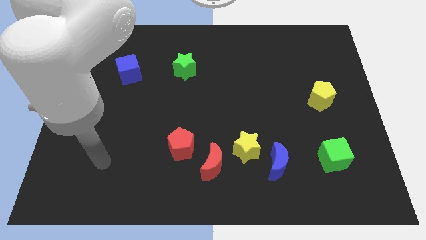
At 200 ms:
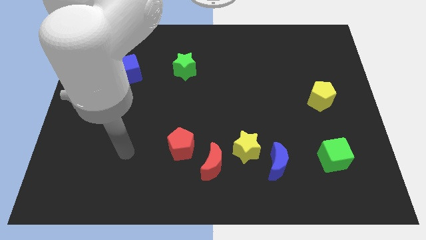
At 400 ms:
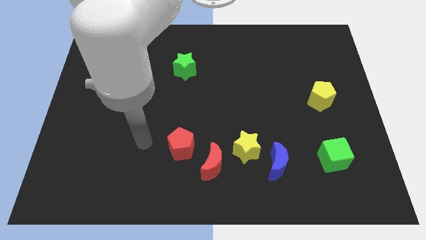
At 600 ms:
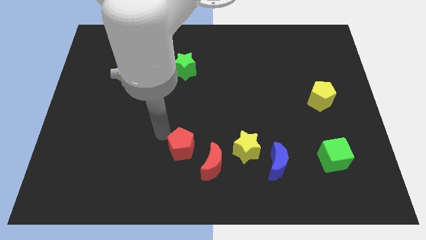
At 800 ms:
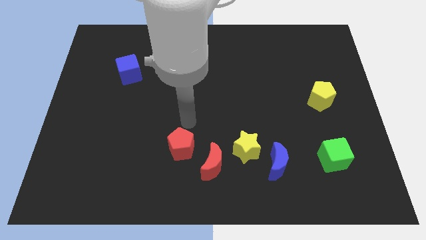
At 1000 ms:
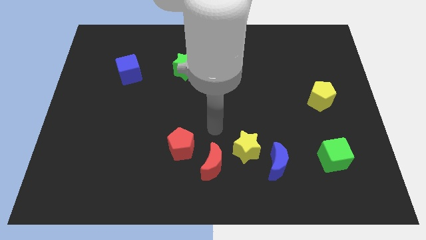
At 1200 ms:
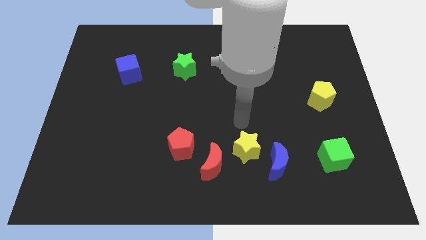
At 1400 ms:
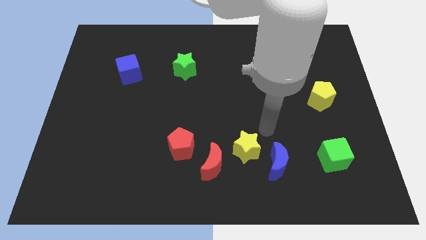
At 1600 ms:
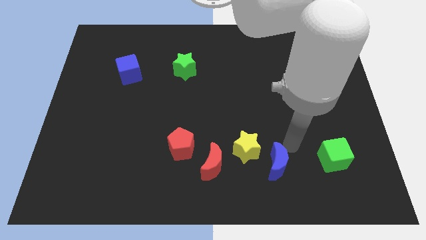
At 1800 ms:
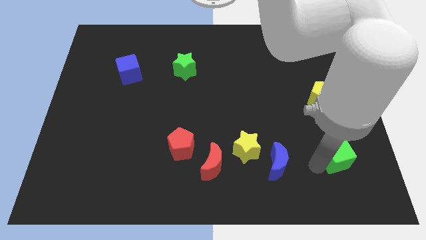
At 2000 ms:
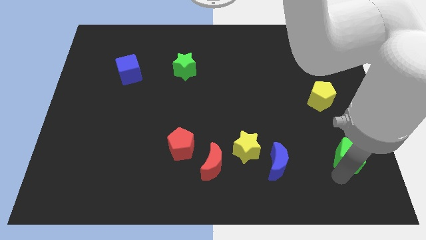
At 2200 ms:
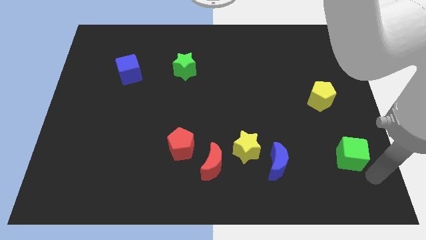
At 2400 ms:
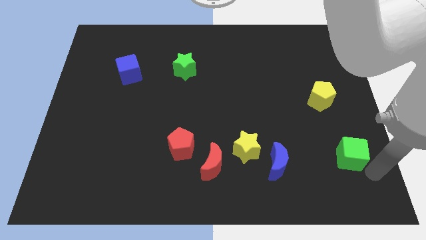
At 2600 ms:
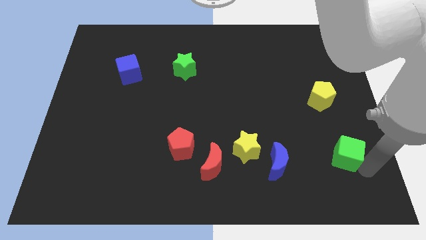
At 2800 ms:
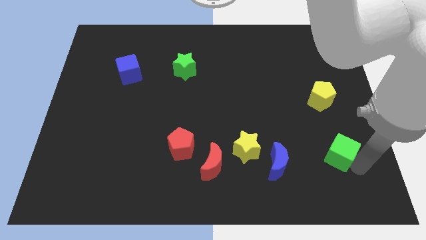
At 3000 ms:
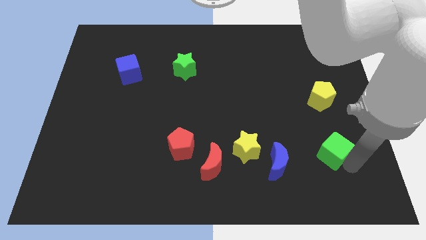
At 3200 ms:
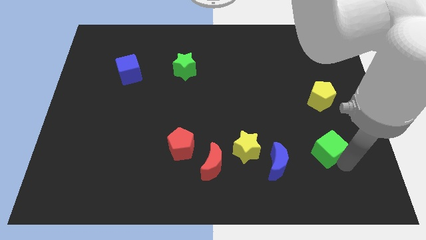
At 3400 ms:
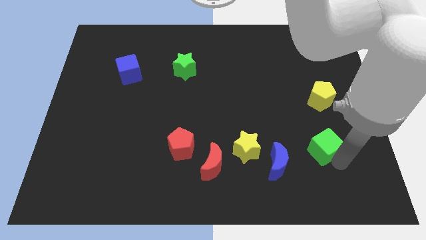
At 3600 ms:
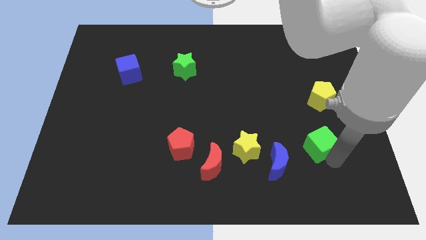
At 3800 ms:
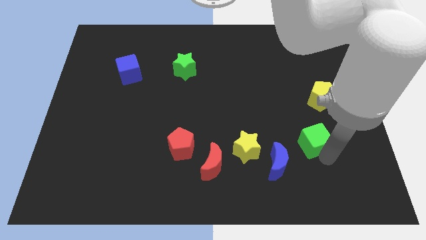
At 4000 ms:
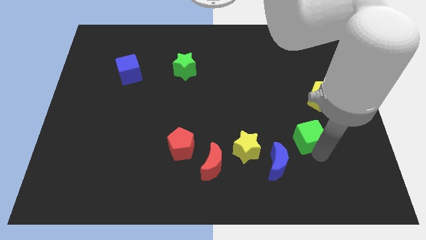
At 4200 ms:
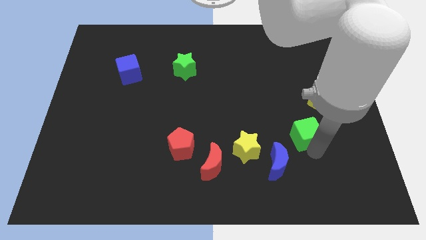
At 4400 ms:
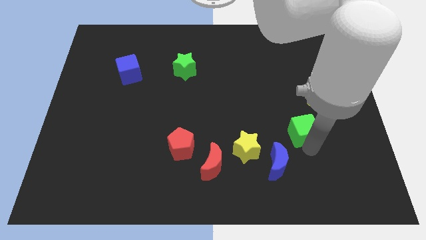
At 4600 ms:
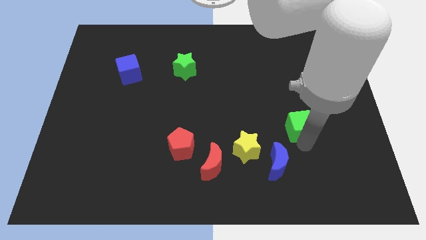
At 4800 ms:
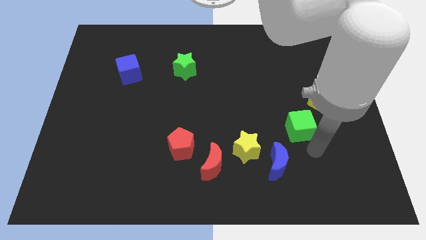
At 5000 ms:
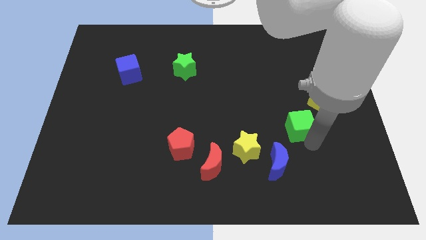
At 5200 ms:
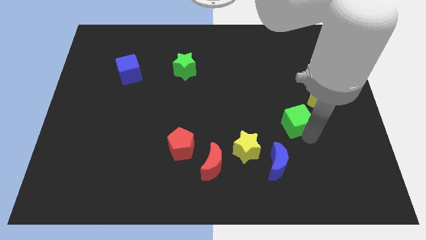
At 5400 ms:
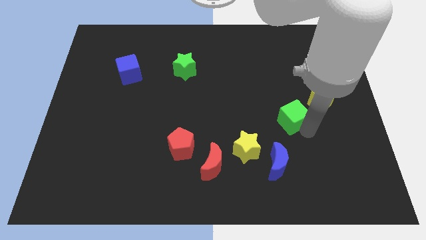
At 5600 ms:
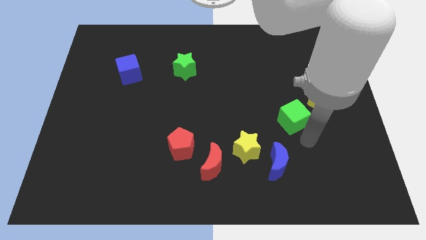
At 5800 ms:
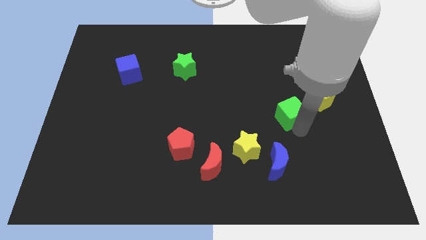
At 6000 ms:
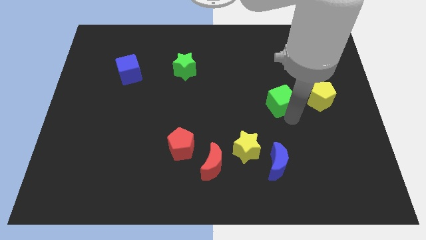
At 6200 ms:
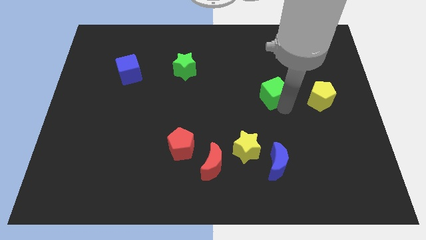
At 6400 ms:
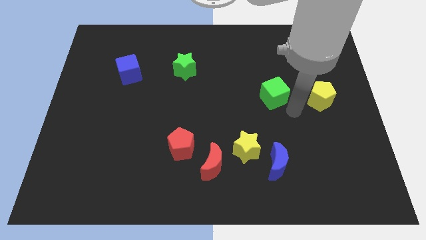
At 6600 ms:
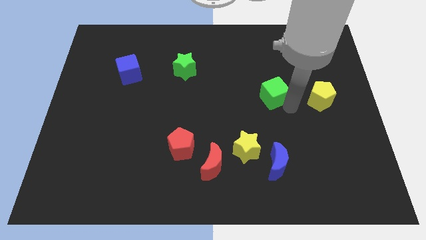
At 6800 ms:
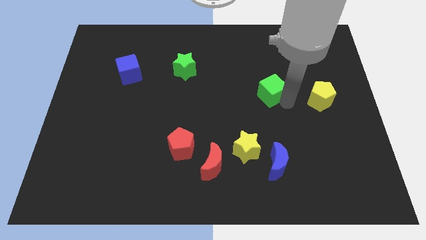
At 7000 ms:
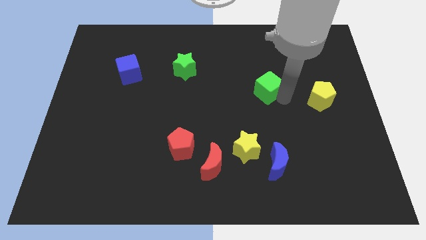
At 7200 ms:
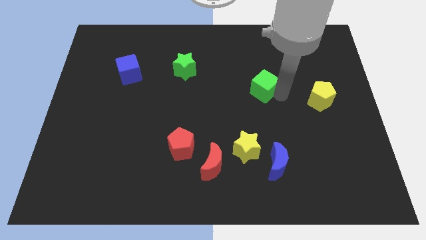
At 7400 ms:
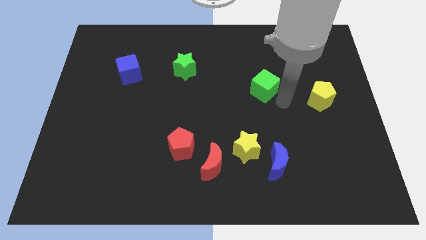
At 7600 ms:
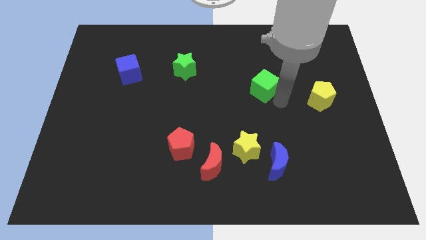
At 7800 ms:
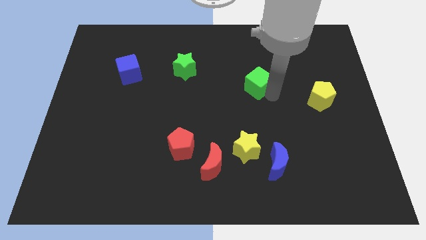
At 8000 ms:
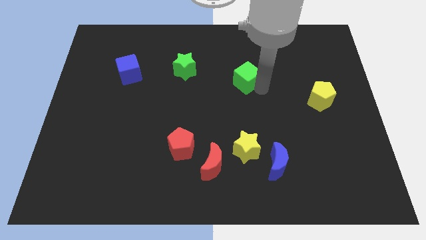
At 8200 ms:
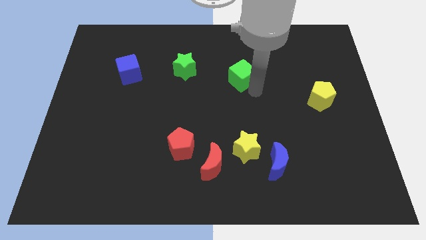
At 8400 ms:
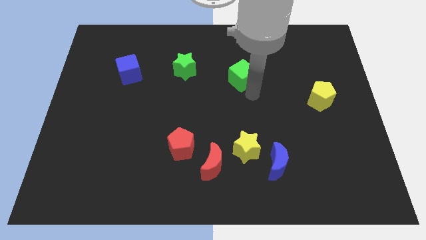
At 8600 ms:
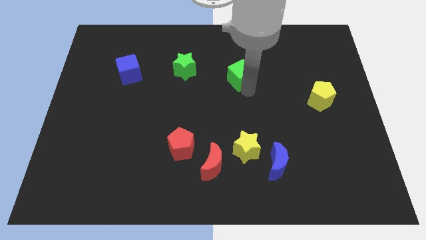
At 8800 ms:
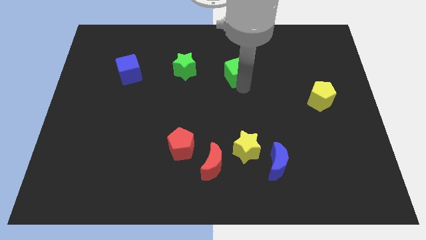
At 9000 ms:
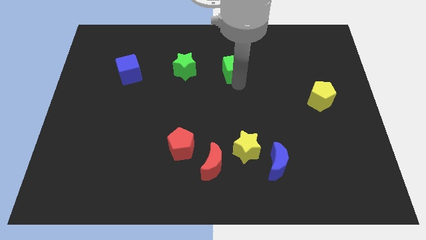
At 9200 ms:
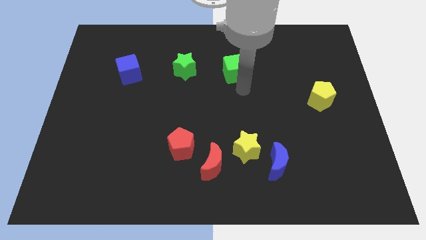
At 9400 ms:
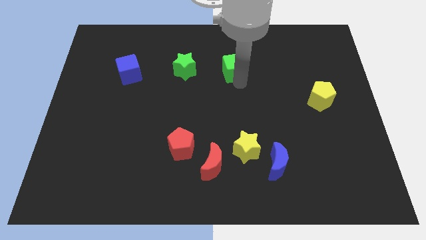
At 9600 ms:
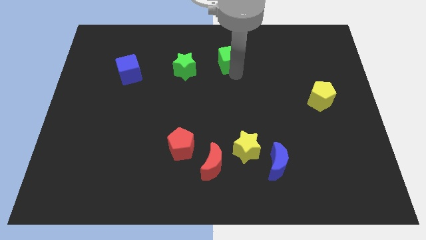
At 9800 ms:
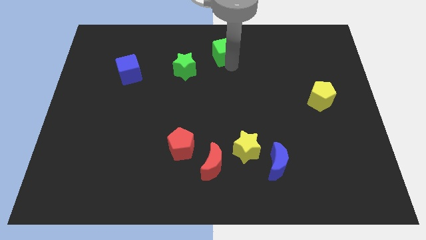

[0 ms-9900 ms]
push the green cube to the towards your base

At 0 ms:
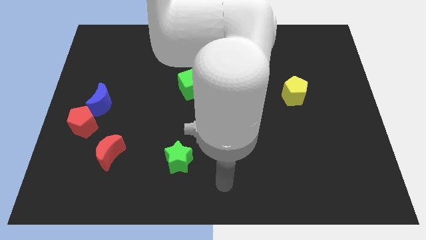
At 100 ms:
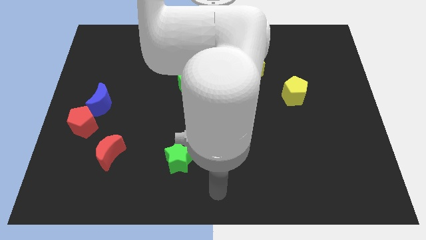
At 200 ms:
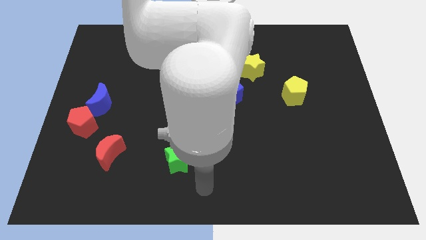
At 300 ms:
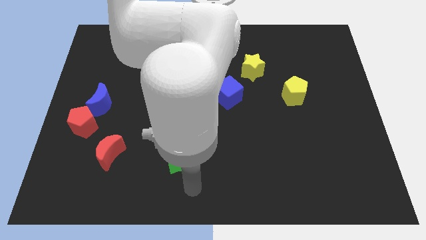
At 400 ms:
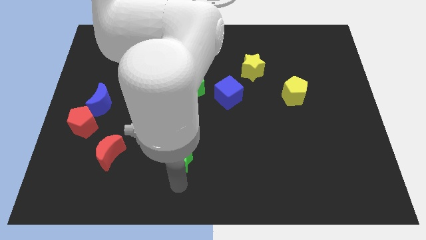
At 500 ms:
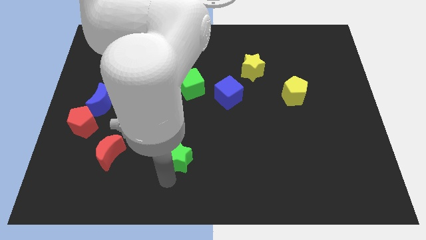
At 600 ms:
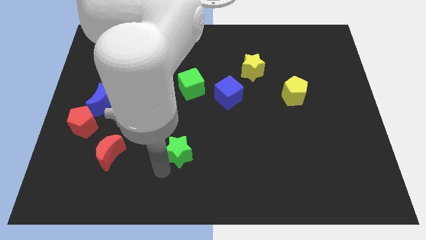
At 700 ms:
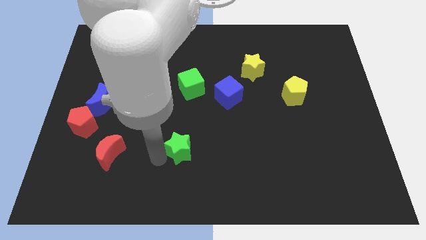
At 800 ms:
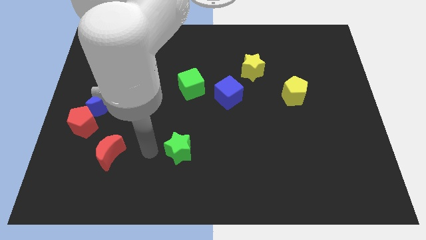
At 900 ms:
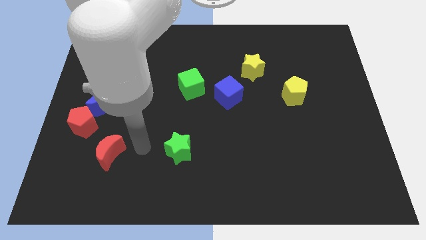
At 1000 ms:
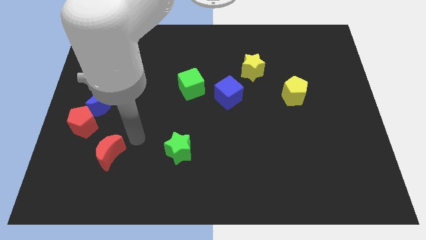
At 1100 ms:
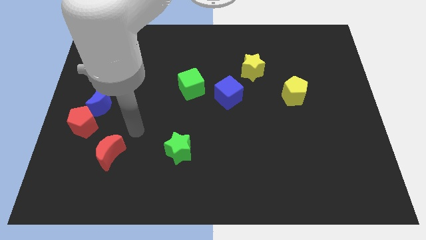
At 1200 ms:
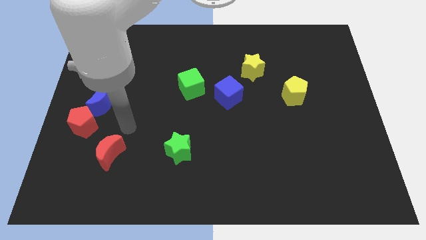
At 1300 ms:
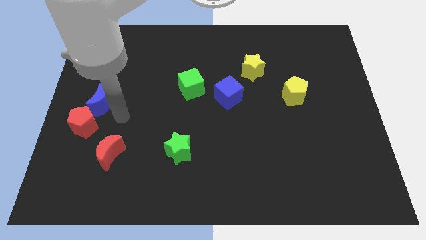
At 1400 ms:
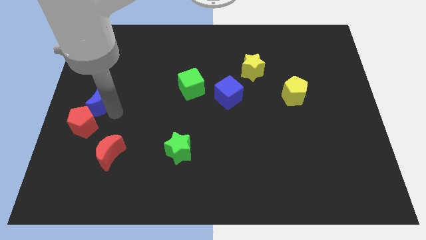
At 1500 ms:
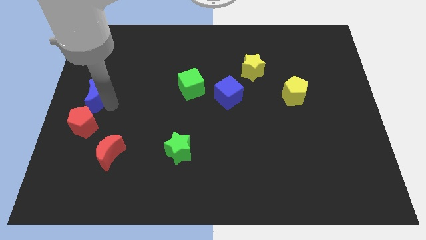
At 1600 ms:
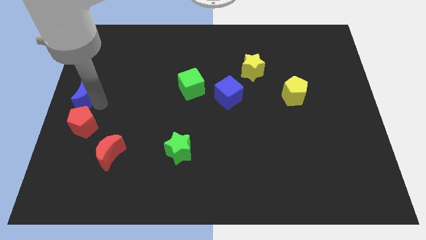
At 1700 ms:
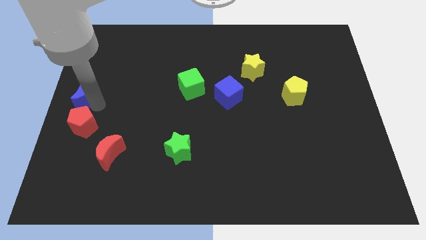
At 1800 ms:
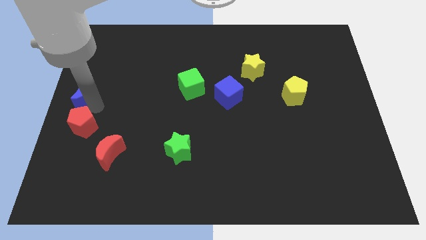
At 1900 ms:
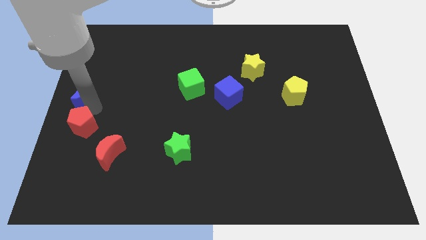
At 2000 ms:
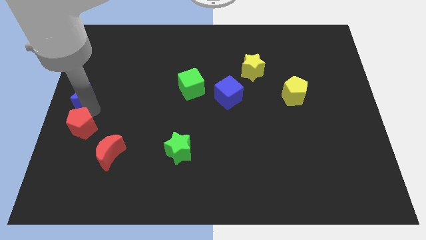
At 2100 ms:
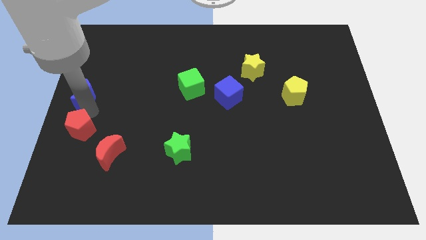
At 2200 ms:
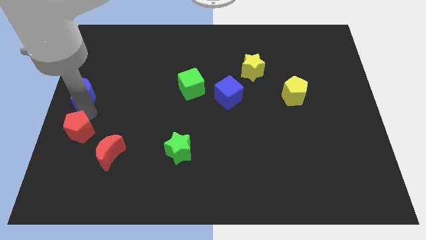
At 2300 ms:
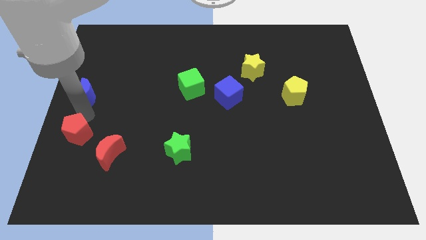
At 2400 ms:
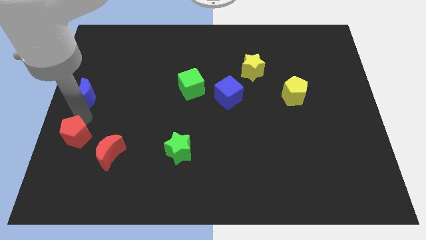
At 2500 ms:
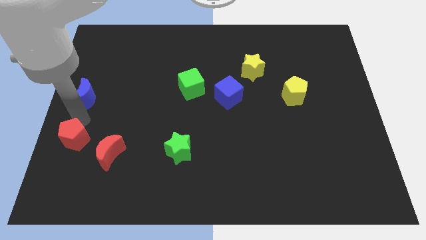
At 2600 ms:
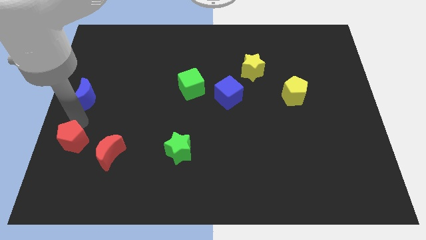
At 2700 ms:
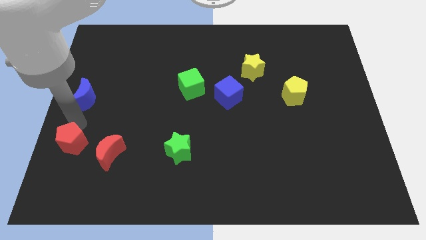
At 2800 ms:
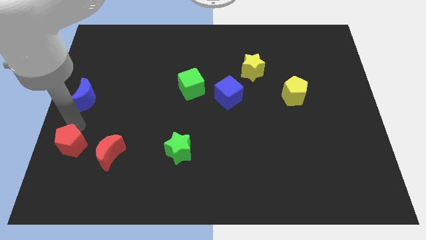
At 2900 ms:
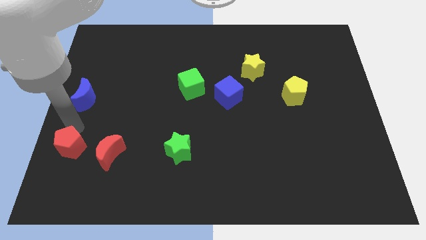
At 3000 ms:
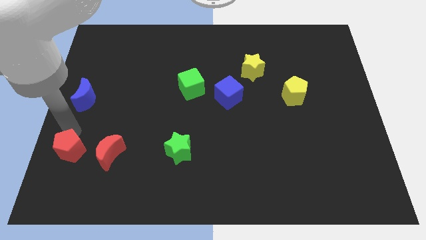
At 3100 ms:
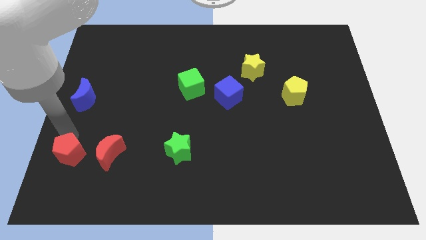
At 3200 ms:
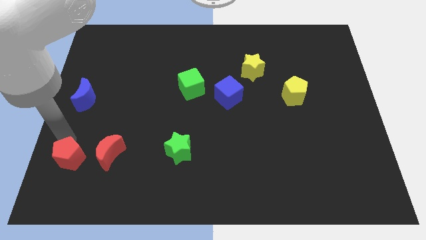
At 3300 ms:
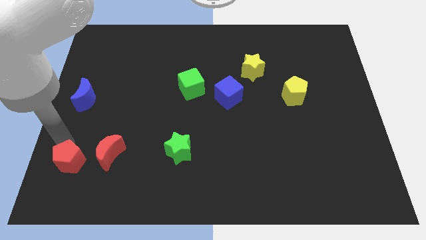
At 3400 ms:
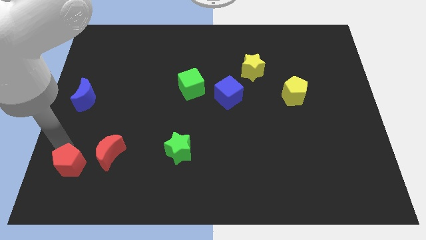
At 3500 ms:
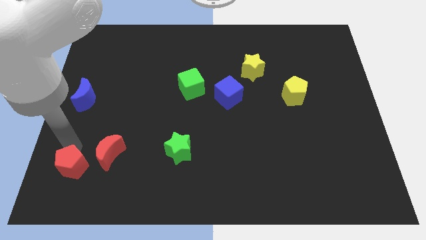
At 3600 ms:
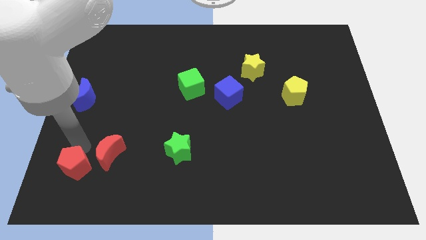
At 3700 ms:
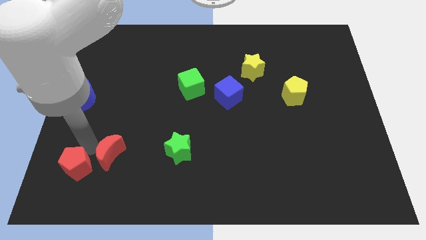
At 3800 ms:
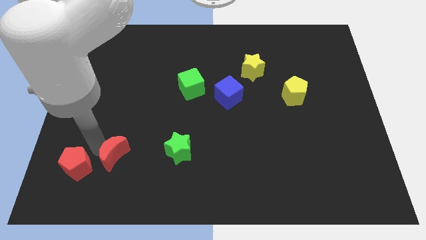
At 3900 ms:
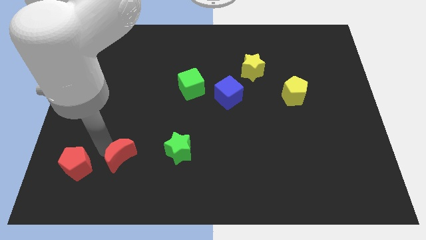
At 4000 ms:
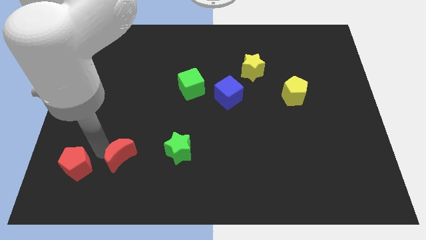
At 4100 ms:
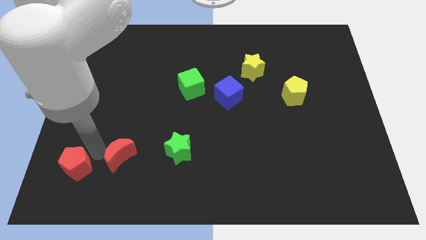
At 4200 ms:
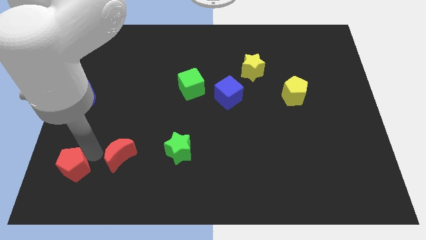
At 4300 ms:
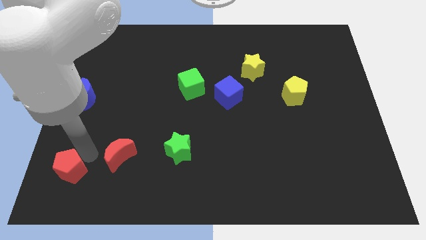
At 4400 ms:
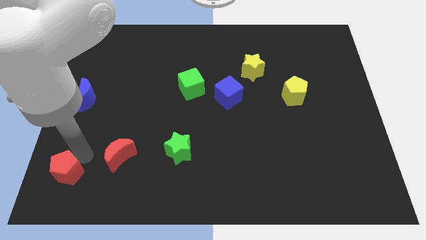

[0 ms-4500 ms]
push the red pentagon to the lower left corner
